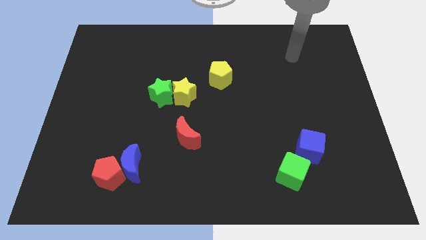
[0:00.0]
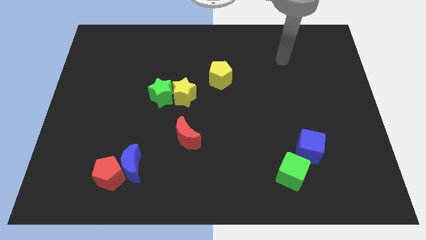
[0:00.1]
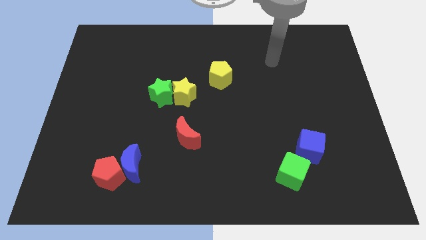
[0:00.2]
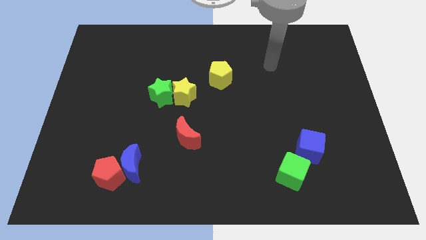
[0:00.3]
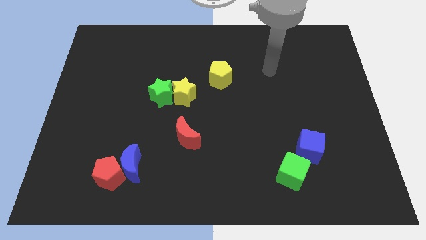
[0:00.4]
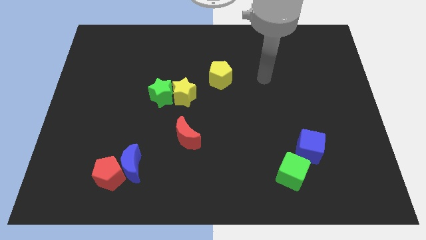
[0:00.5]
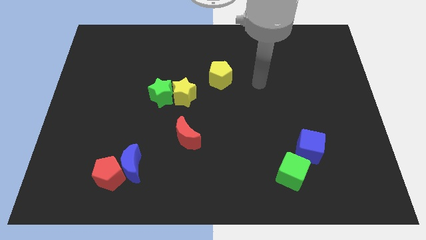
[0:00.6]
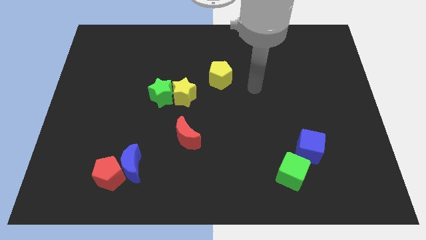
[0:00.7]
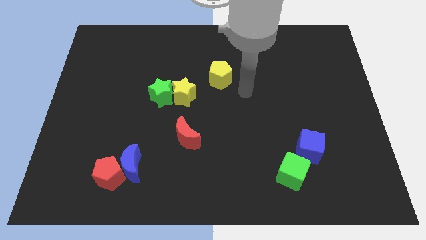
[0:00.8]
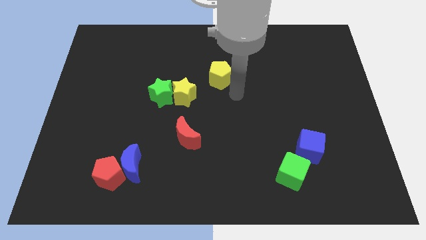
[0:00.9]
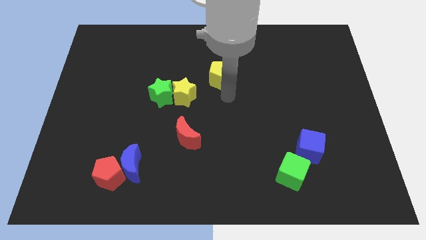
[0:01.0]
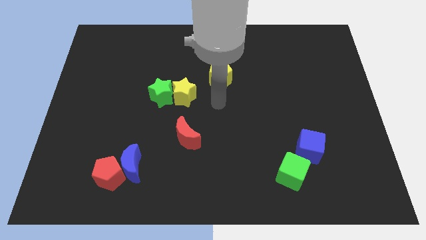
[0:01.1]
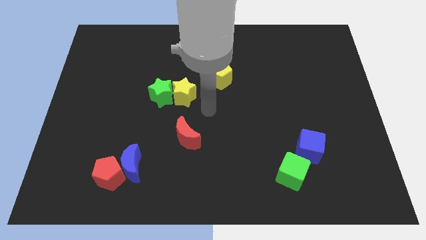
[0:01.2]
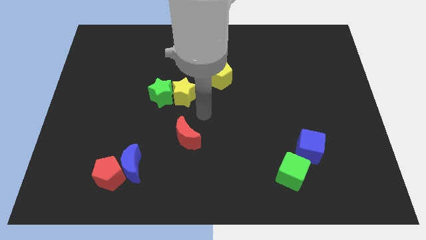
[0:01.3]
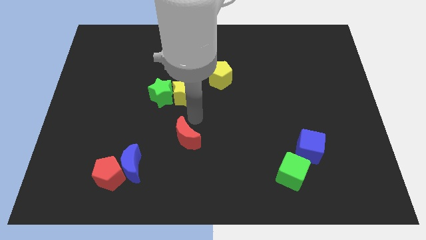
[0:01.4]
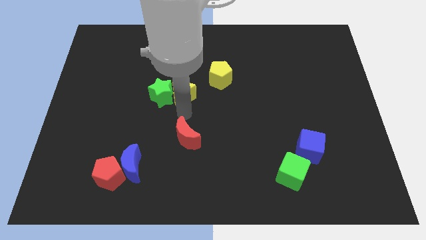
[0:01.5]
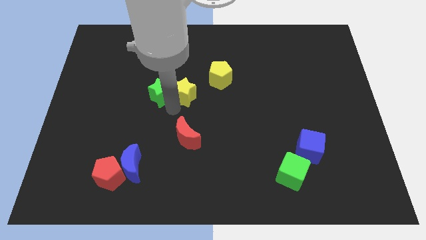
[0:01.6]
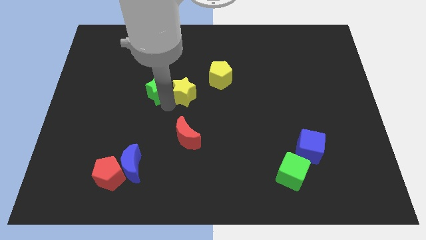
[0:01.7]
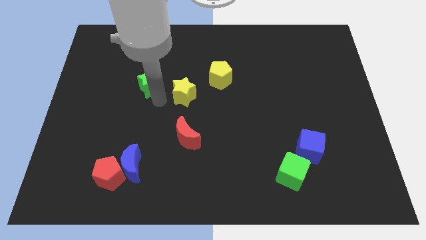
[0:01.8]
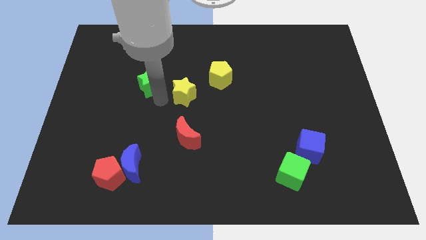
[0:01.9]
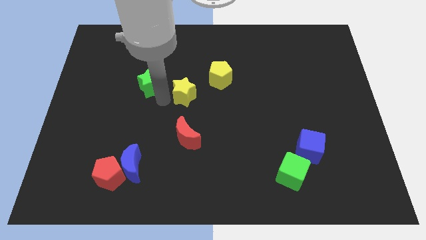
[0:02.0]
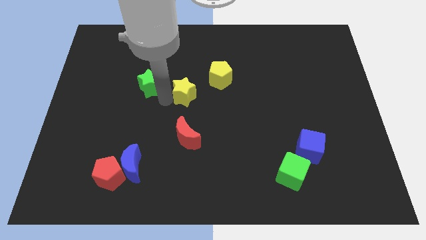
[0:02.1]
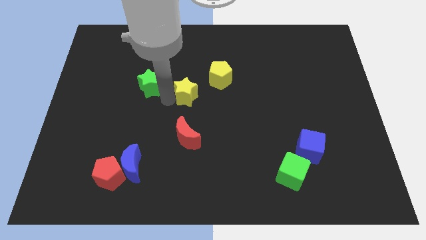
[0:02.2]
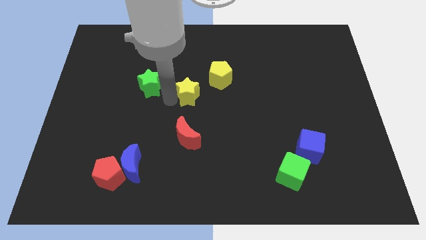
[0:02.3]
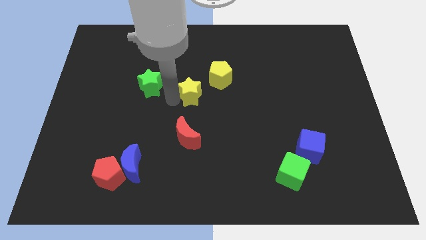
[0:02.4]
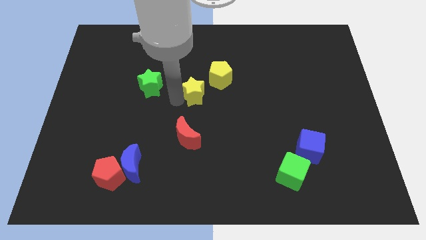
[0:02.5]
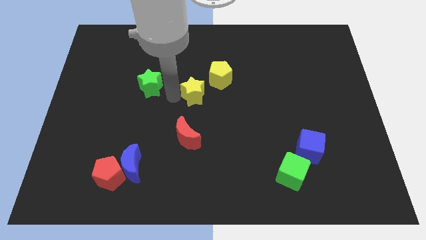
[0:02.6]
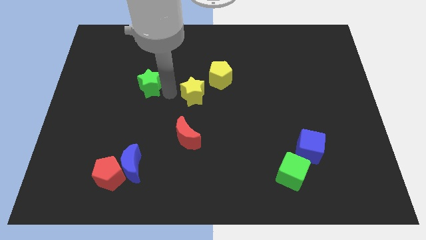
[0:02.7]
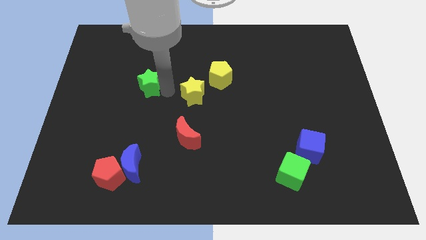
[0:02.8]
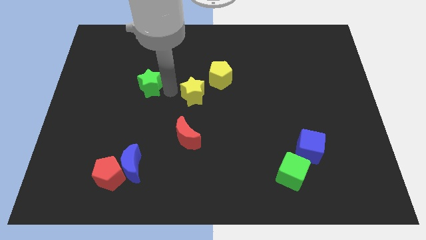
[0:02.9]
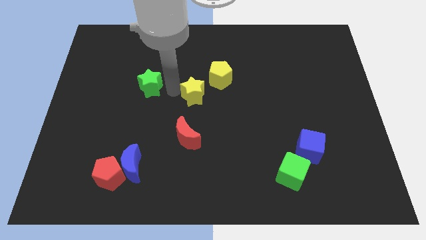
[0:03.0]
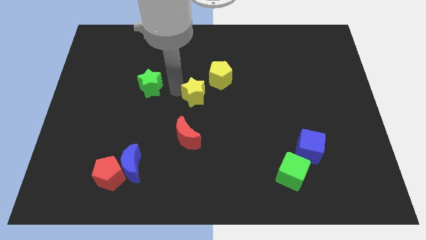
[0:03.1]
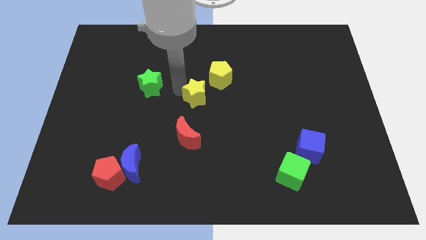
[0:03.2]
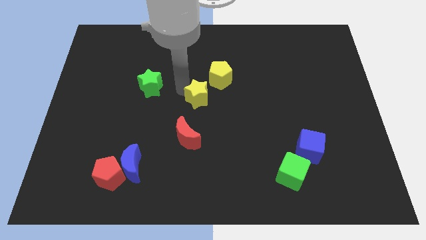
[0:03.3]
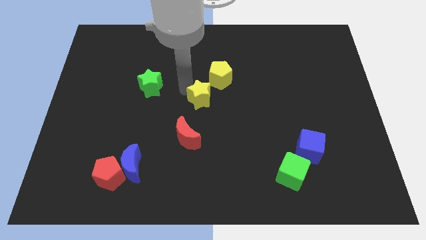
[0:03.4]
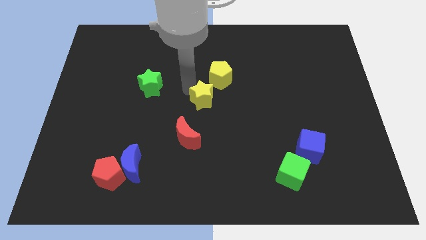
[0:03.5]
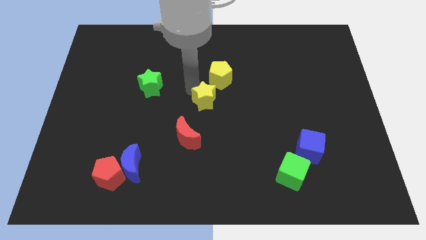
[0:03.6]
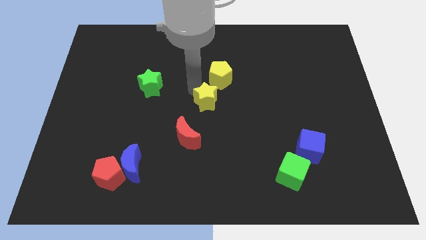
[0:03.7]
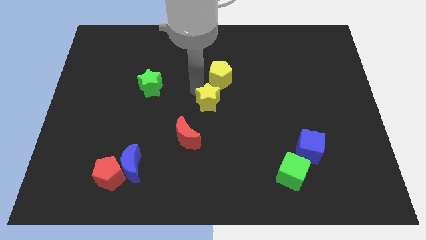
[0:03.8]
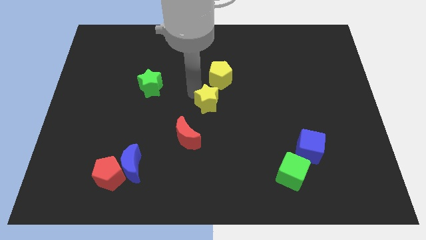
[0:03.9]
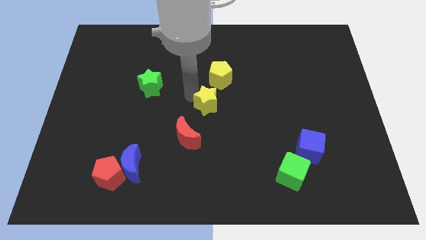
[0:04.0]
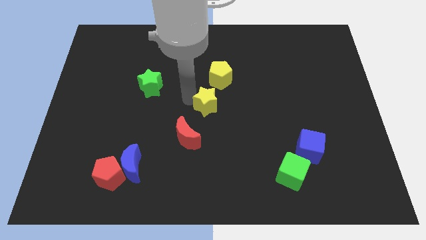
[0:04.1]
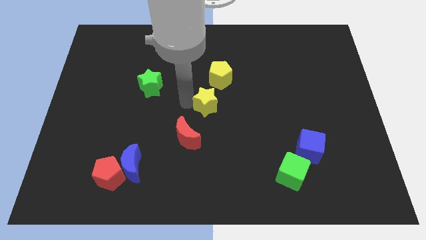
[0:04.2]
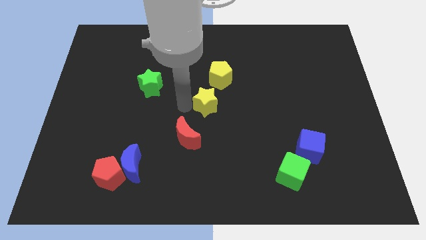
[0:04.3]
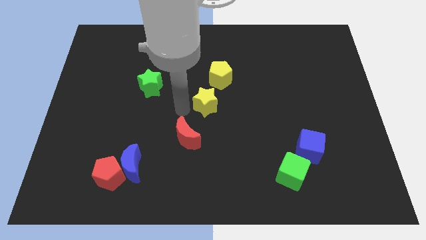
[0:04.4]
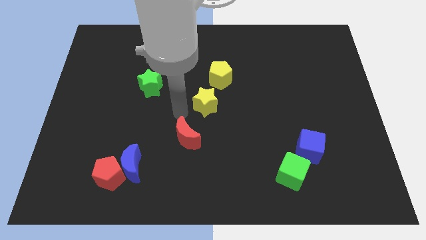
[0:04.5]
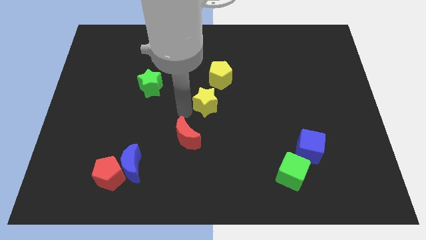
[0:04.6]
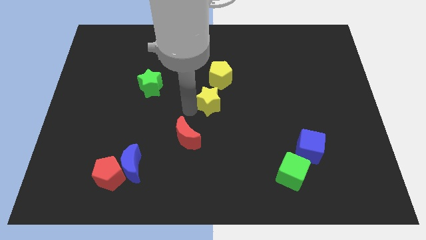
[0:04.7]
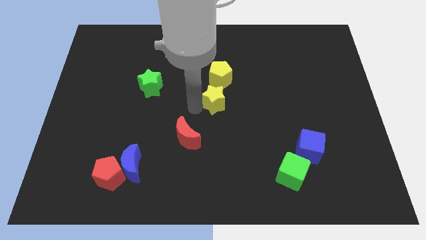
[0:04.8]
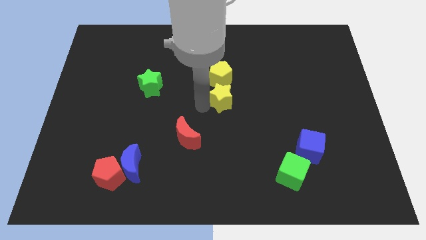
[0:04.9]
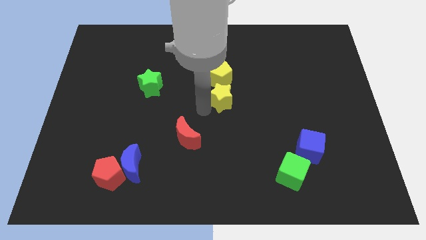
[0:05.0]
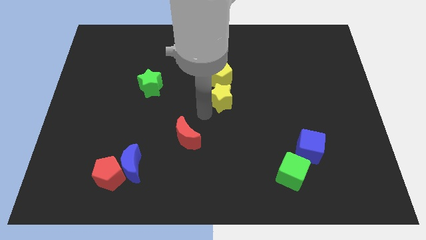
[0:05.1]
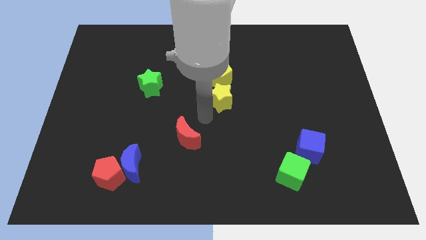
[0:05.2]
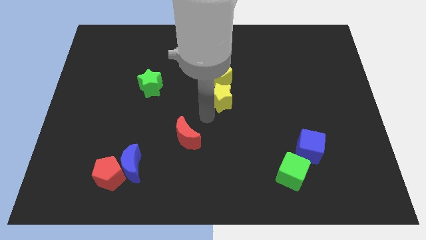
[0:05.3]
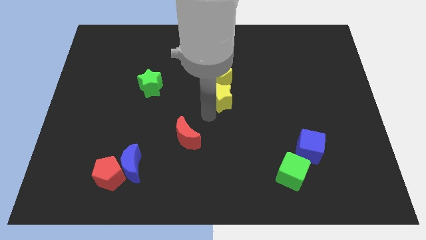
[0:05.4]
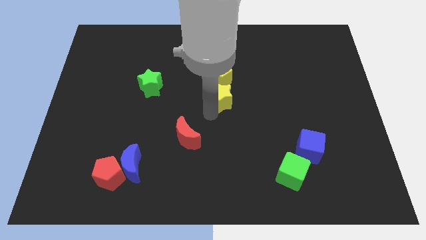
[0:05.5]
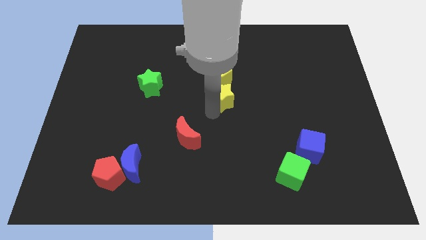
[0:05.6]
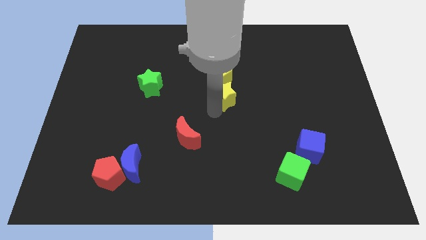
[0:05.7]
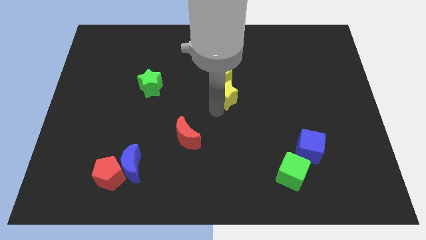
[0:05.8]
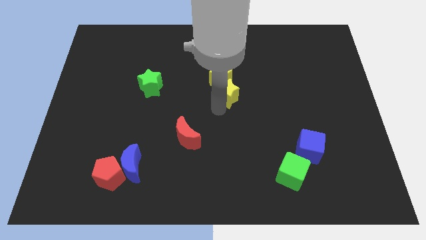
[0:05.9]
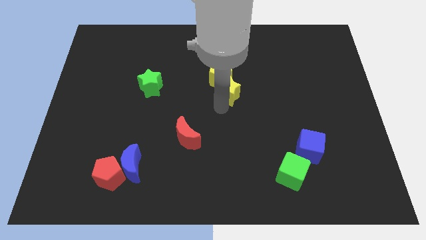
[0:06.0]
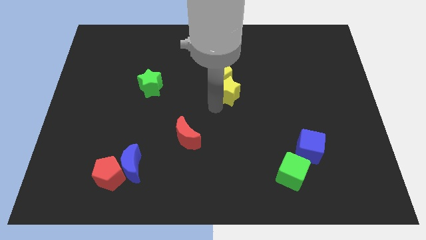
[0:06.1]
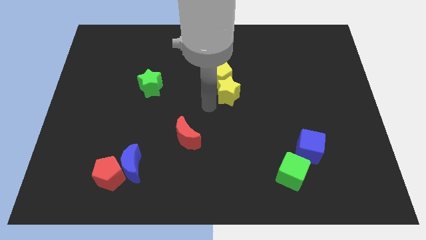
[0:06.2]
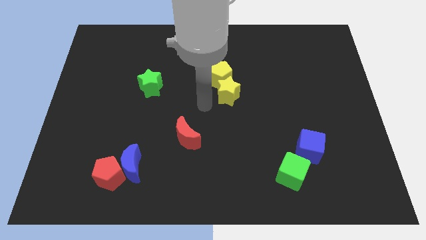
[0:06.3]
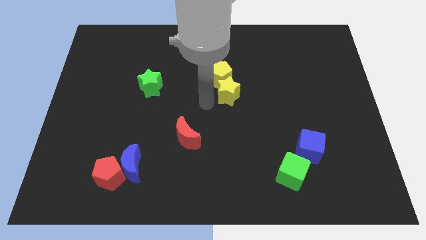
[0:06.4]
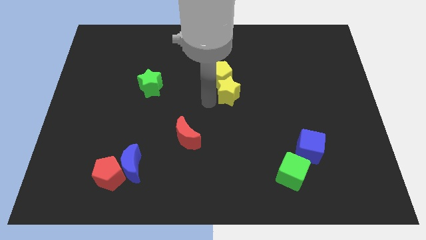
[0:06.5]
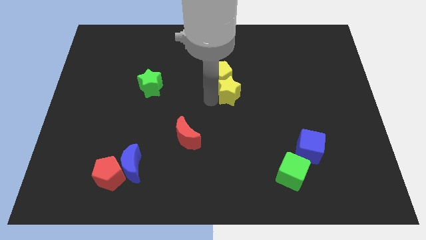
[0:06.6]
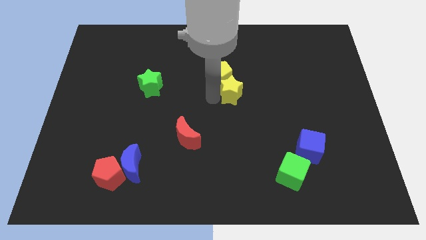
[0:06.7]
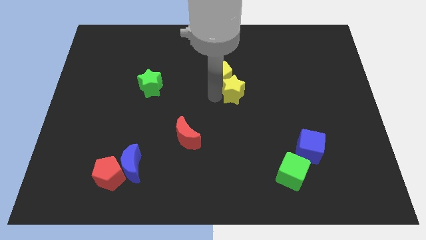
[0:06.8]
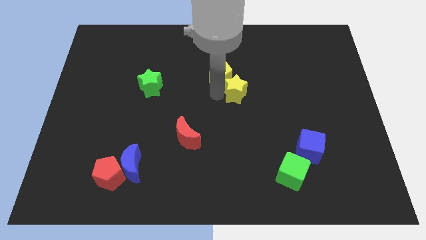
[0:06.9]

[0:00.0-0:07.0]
move the yellow star right of the yellow pentagon
